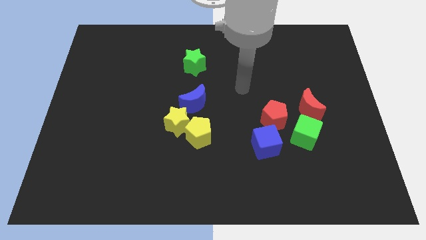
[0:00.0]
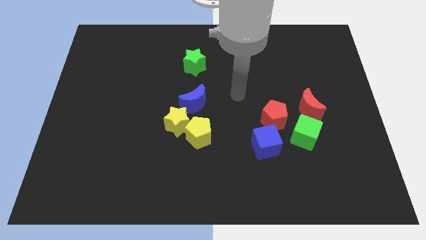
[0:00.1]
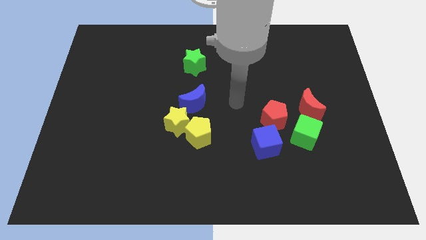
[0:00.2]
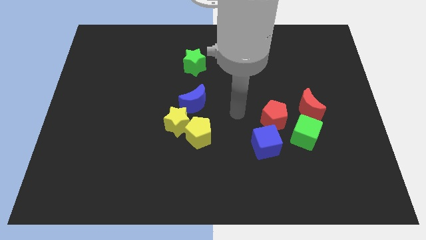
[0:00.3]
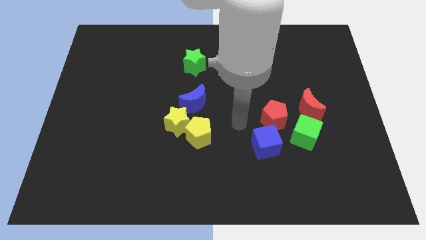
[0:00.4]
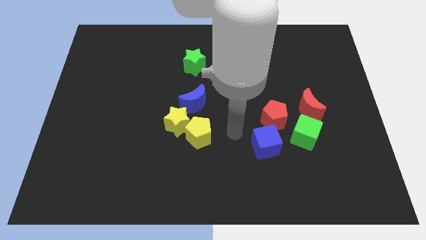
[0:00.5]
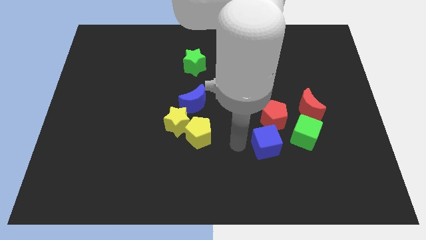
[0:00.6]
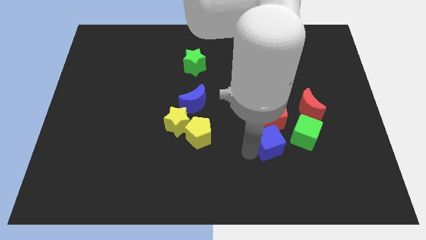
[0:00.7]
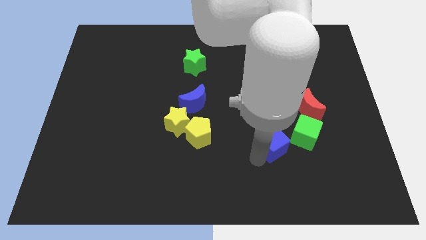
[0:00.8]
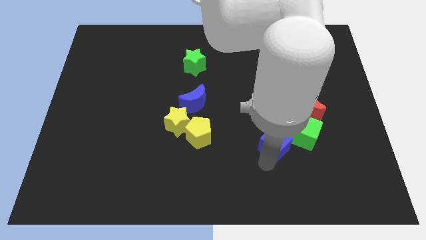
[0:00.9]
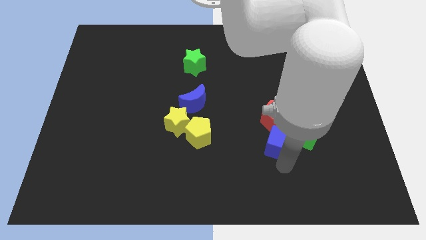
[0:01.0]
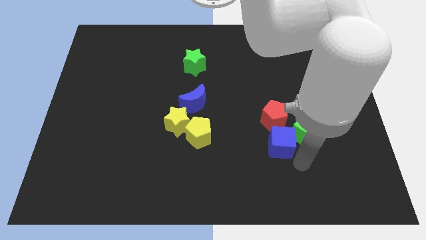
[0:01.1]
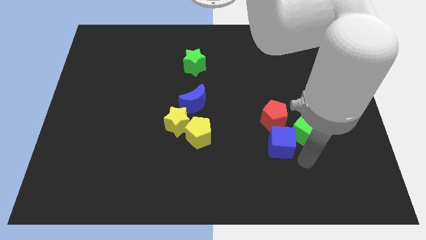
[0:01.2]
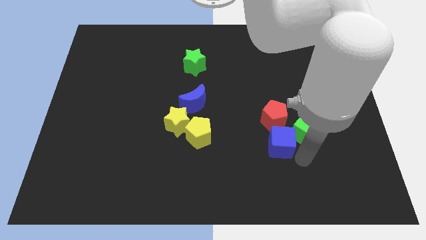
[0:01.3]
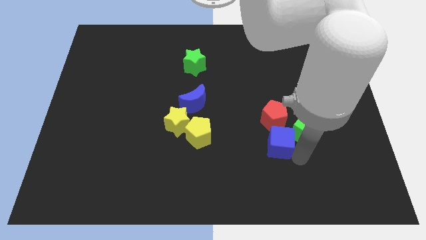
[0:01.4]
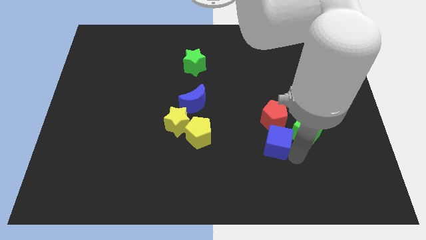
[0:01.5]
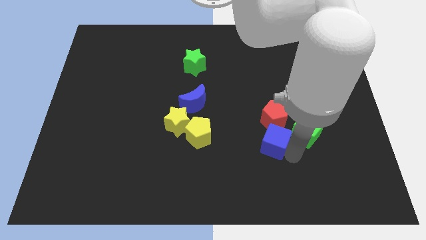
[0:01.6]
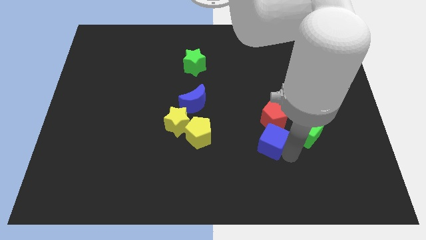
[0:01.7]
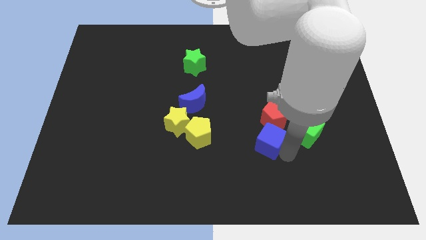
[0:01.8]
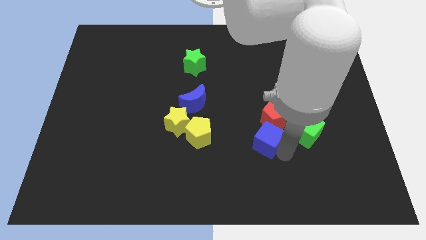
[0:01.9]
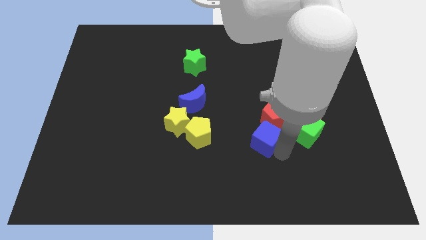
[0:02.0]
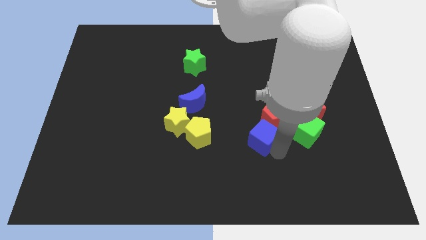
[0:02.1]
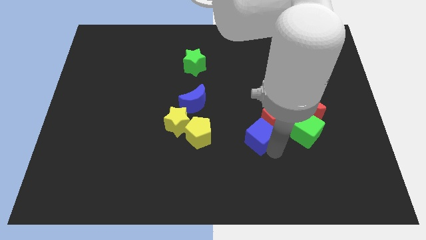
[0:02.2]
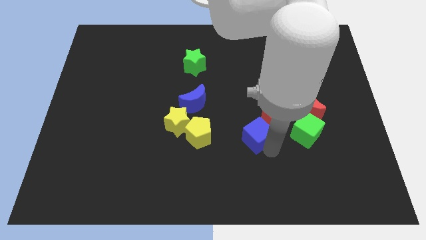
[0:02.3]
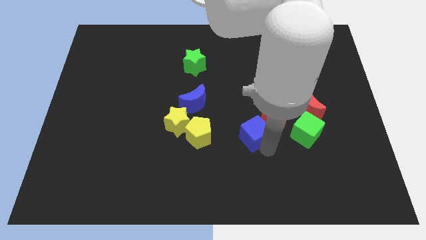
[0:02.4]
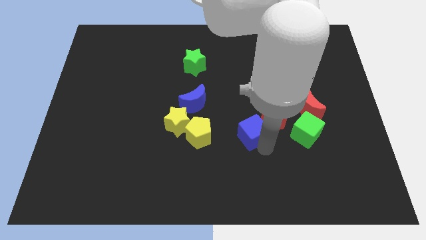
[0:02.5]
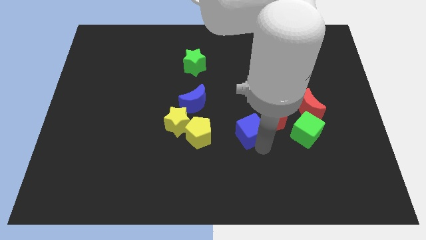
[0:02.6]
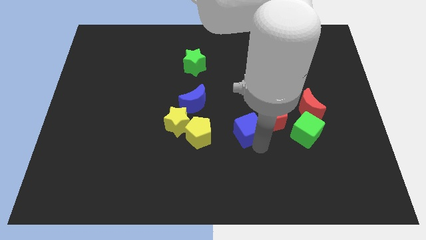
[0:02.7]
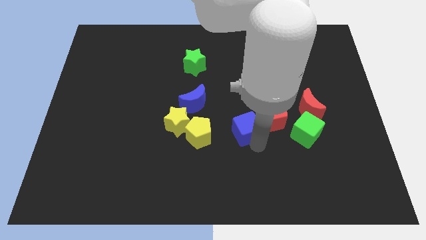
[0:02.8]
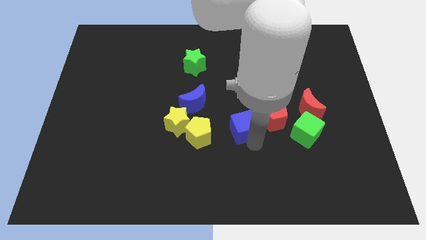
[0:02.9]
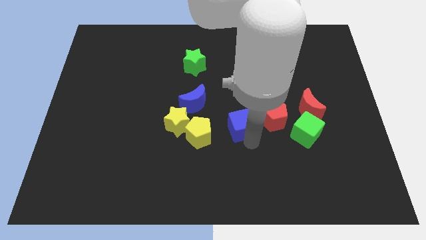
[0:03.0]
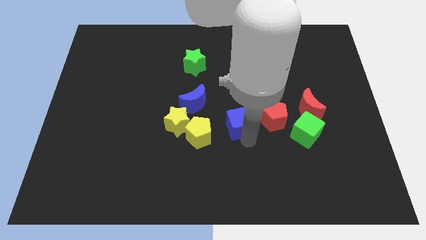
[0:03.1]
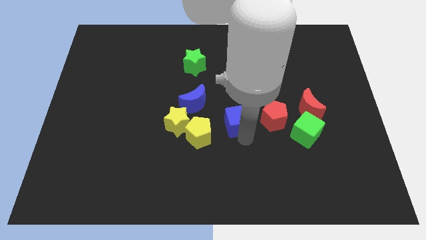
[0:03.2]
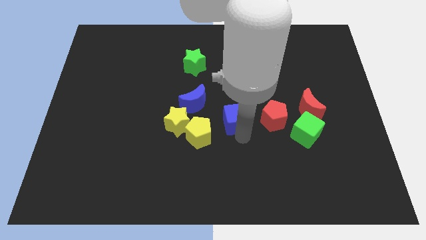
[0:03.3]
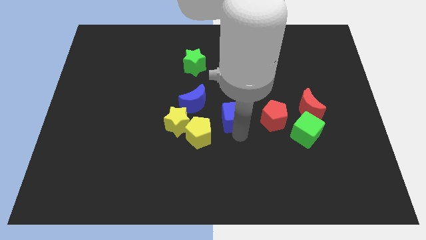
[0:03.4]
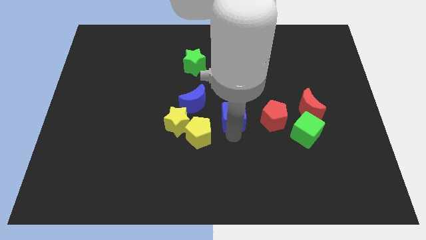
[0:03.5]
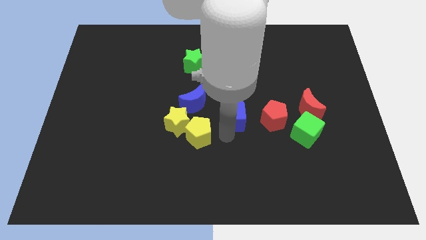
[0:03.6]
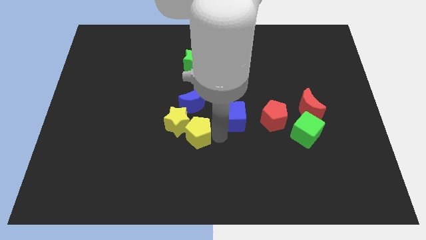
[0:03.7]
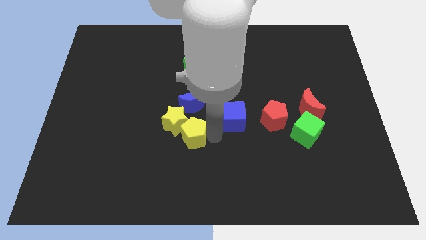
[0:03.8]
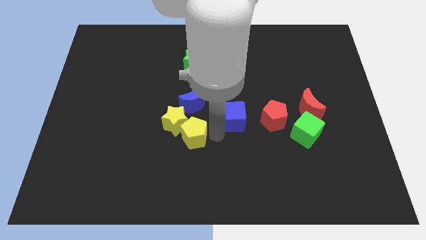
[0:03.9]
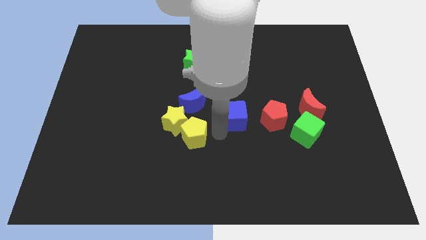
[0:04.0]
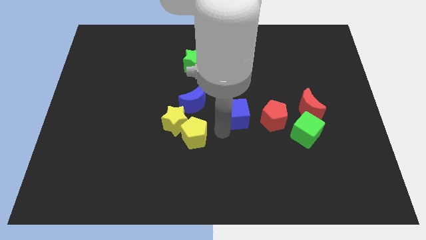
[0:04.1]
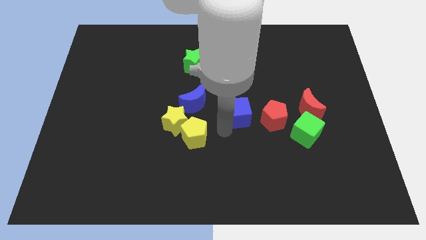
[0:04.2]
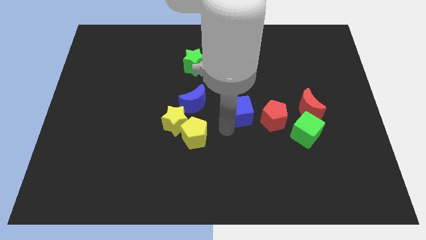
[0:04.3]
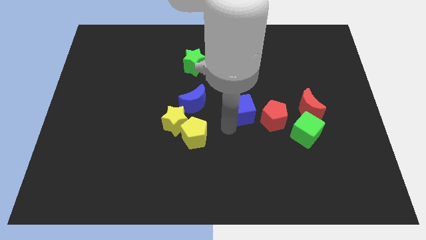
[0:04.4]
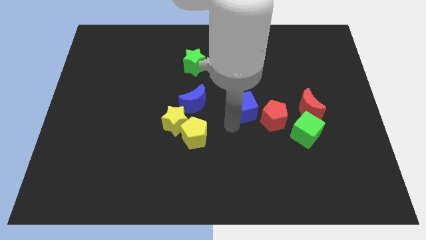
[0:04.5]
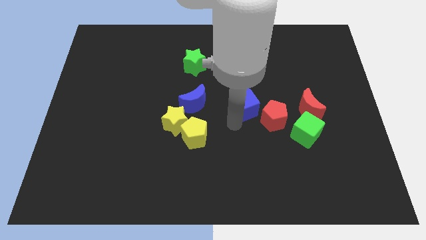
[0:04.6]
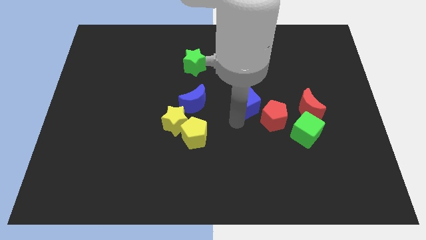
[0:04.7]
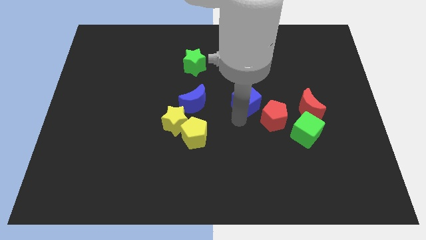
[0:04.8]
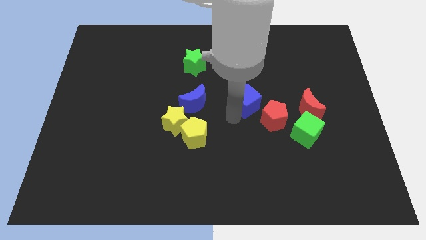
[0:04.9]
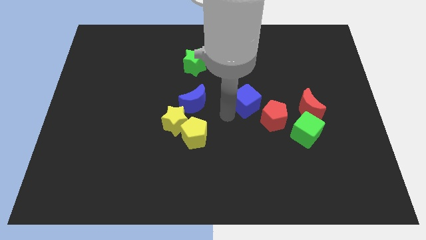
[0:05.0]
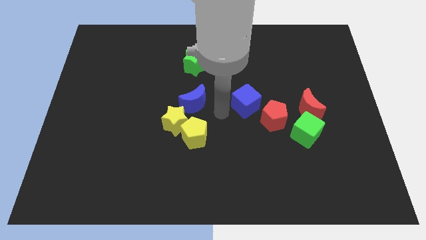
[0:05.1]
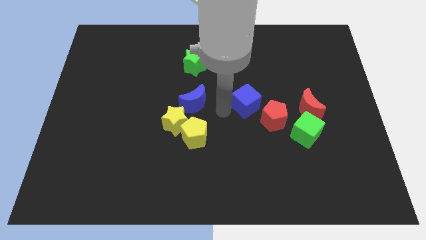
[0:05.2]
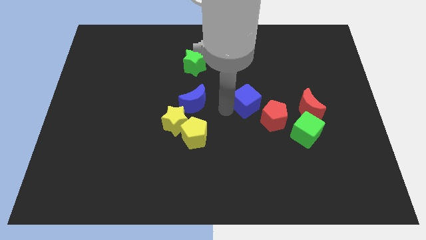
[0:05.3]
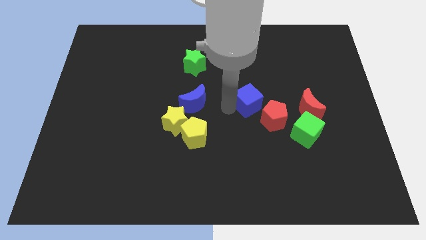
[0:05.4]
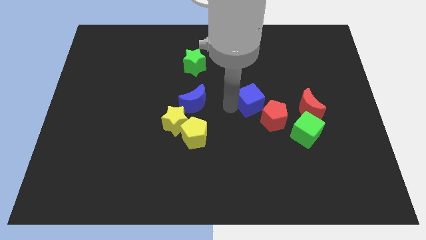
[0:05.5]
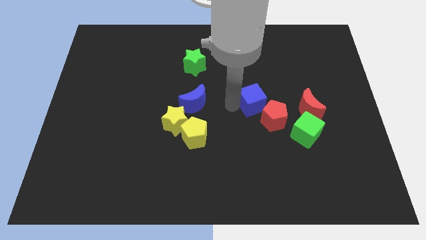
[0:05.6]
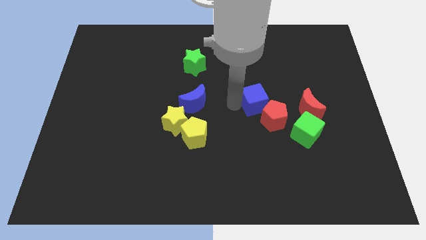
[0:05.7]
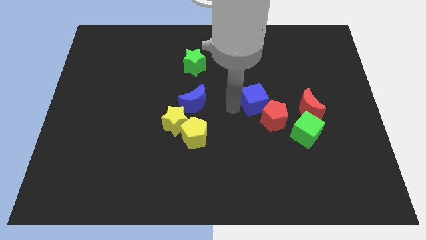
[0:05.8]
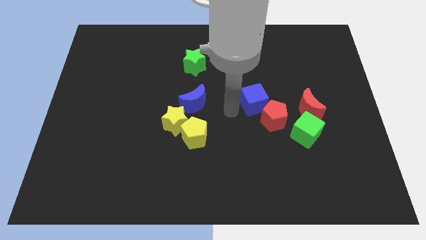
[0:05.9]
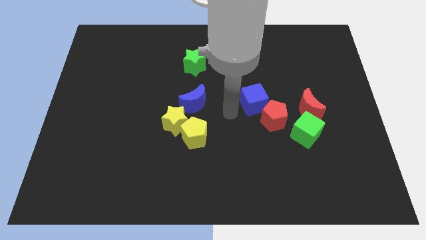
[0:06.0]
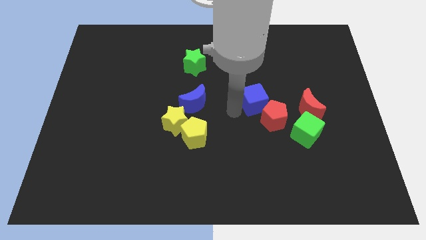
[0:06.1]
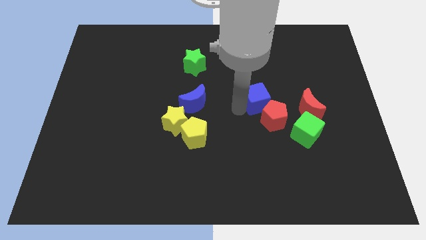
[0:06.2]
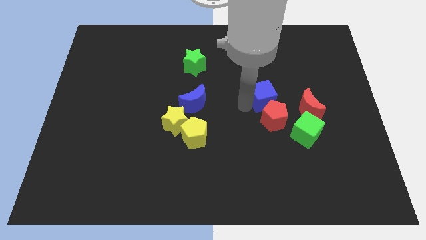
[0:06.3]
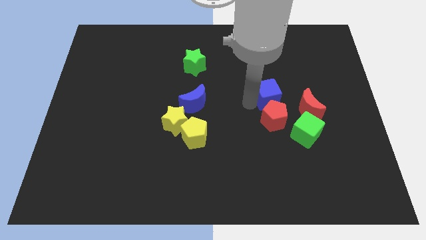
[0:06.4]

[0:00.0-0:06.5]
slightly move the blue cube upwards and to the right diagonally

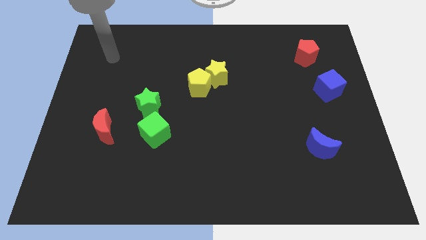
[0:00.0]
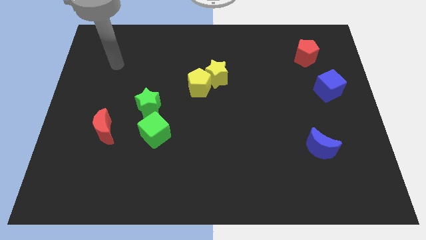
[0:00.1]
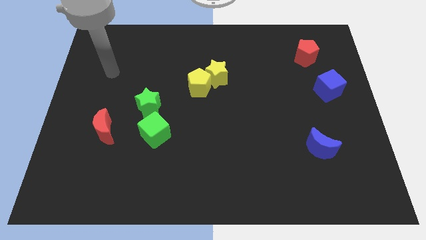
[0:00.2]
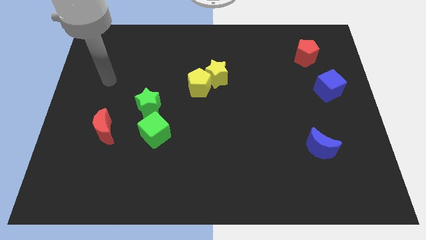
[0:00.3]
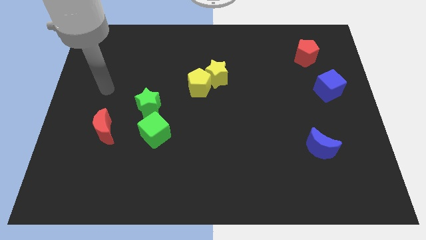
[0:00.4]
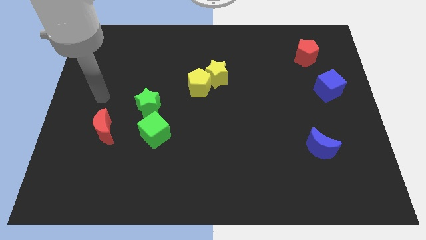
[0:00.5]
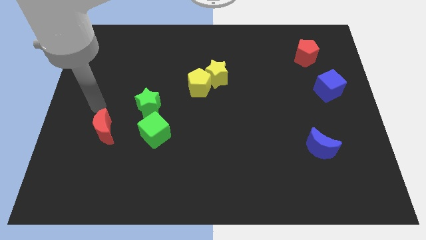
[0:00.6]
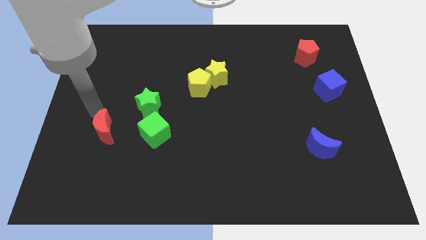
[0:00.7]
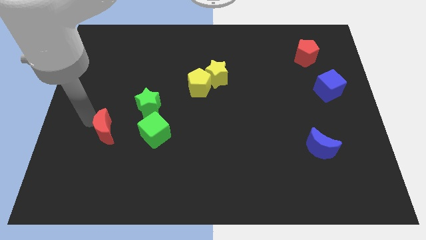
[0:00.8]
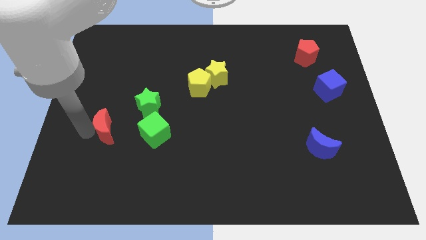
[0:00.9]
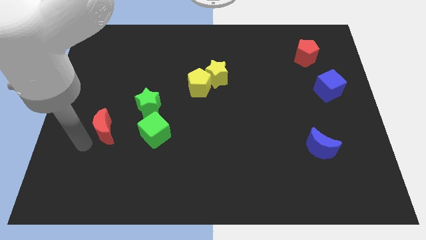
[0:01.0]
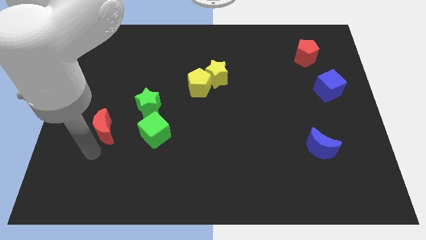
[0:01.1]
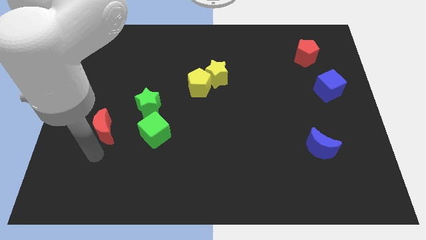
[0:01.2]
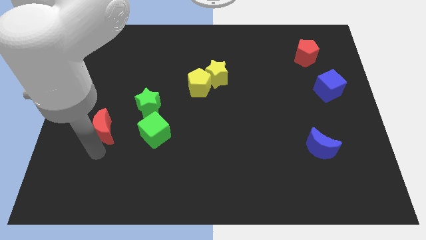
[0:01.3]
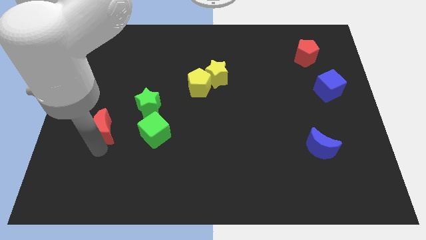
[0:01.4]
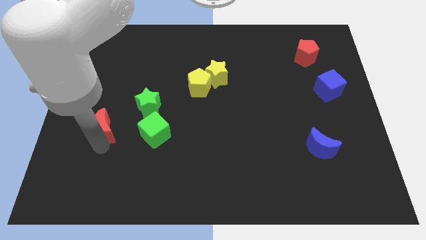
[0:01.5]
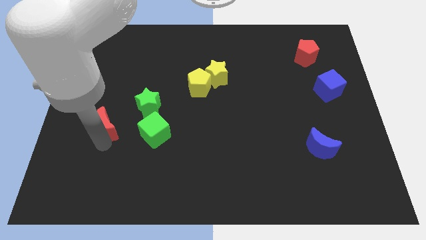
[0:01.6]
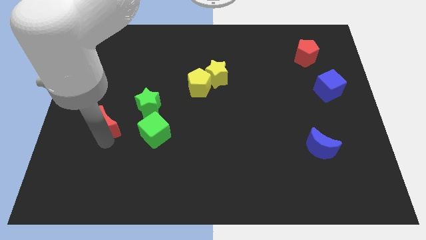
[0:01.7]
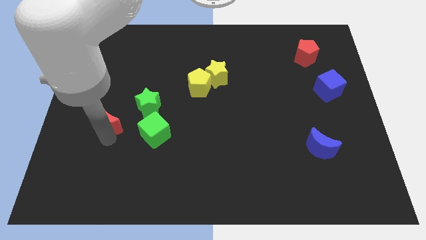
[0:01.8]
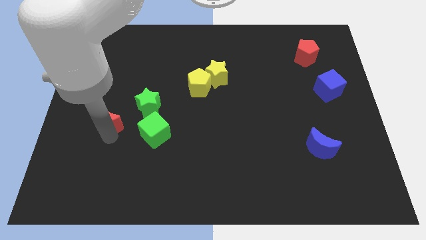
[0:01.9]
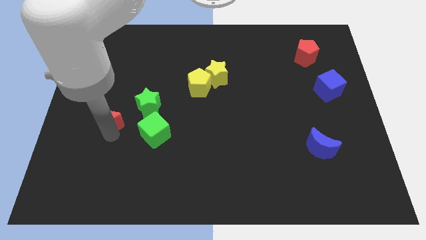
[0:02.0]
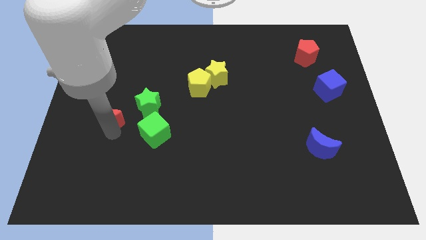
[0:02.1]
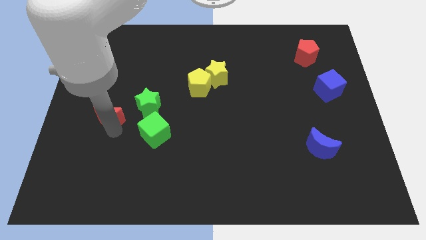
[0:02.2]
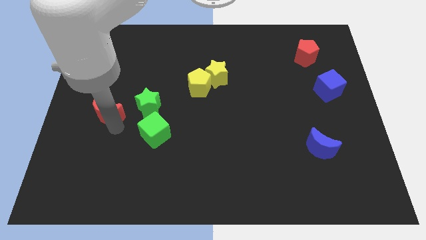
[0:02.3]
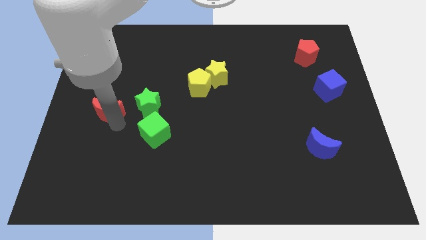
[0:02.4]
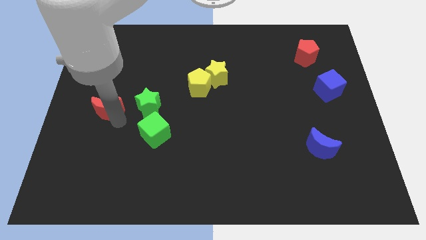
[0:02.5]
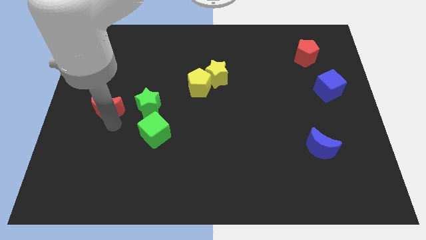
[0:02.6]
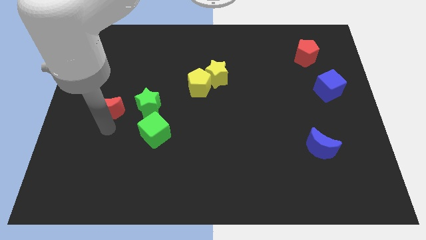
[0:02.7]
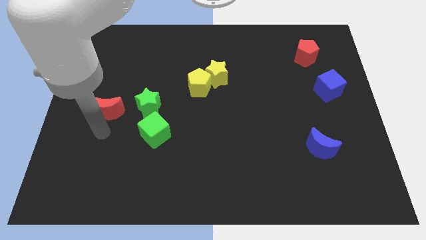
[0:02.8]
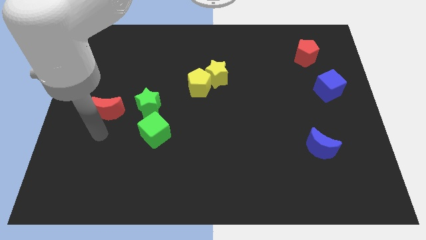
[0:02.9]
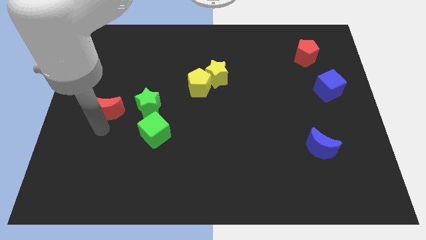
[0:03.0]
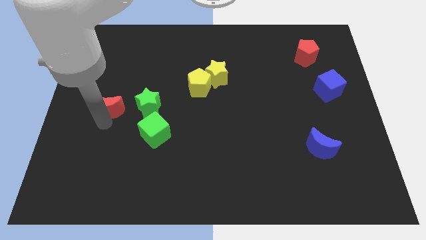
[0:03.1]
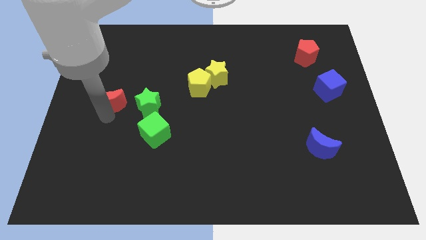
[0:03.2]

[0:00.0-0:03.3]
push the red moon somewhat upwards
